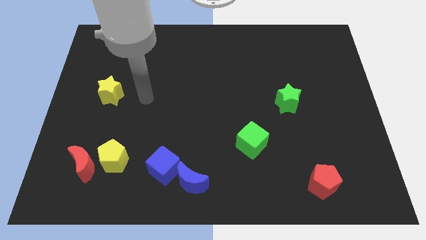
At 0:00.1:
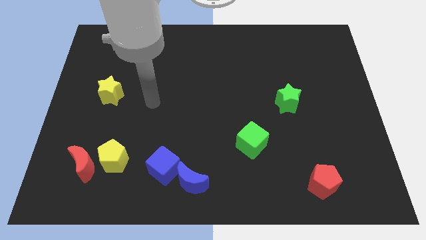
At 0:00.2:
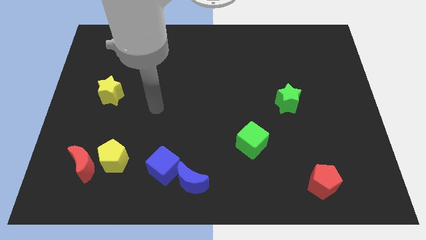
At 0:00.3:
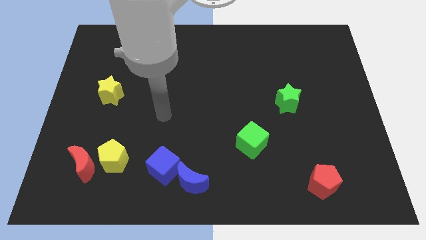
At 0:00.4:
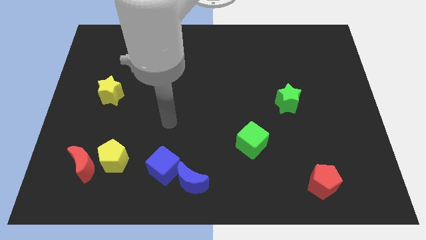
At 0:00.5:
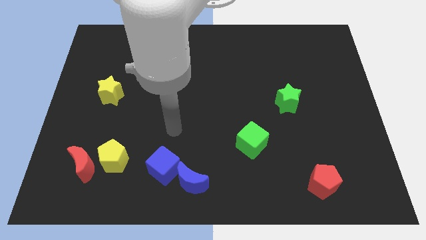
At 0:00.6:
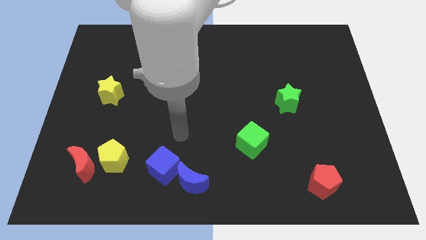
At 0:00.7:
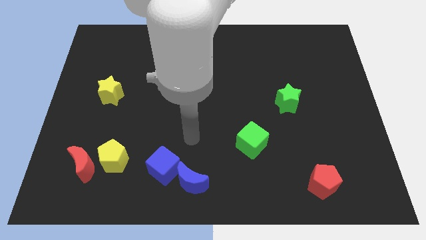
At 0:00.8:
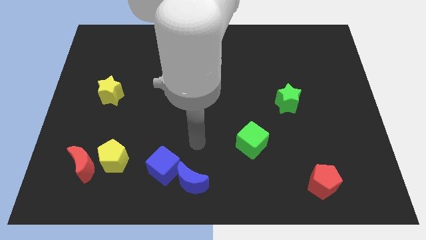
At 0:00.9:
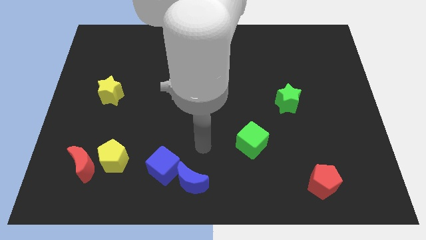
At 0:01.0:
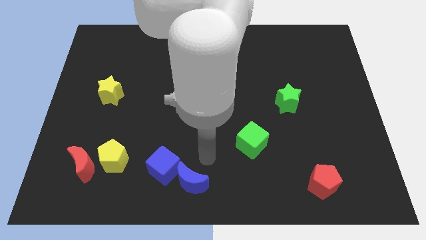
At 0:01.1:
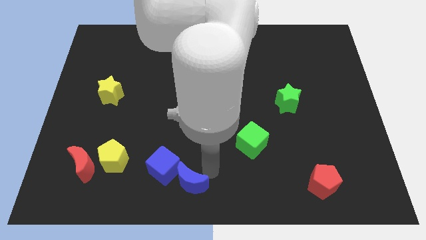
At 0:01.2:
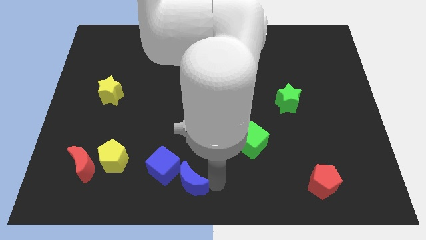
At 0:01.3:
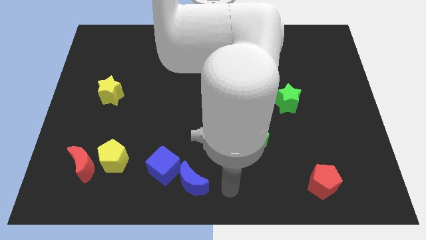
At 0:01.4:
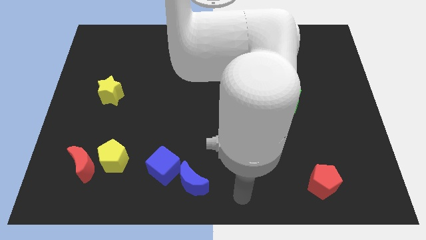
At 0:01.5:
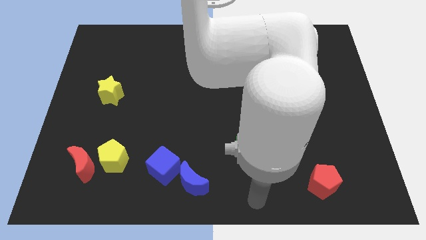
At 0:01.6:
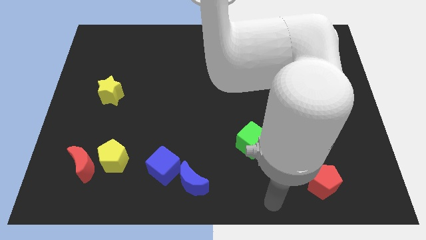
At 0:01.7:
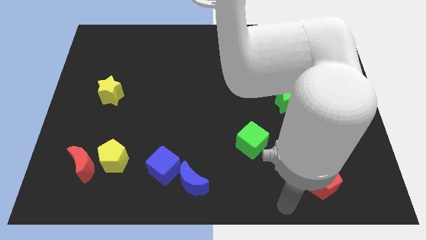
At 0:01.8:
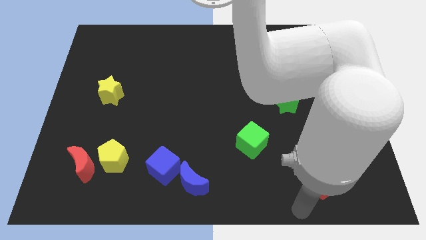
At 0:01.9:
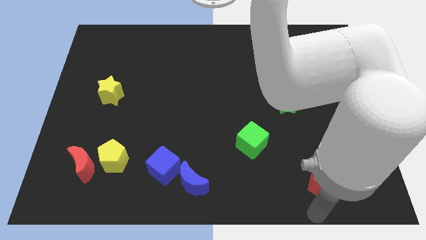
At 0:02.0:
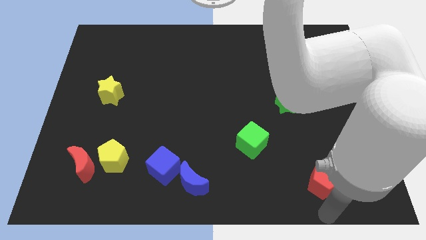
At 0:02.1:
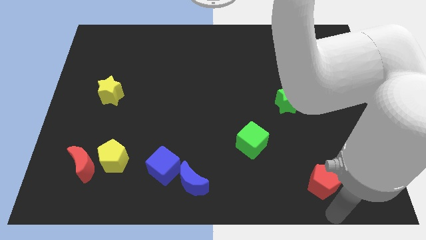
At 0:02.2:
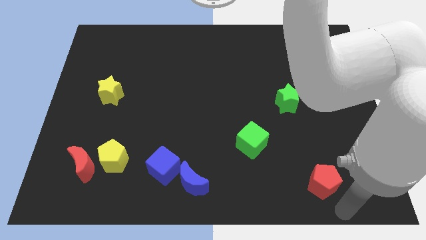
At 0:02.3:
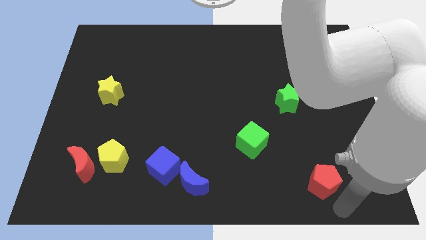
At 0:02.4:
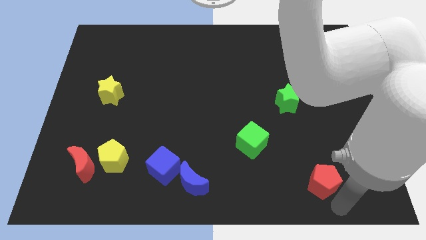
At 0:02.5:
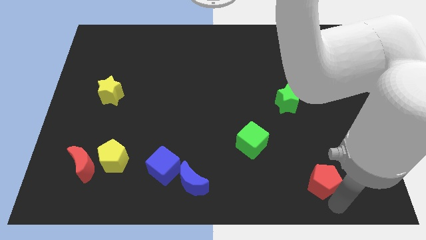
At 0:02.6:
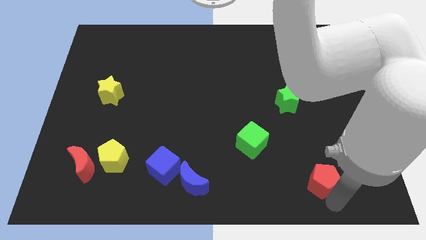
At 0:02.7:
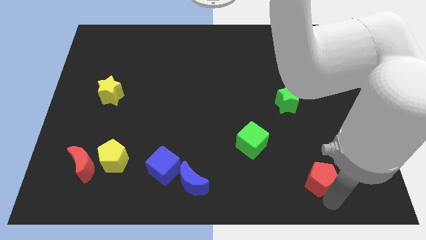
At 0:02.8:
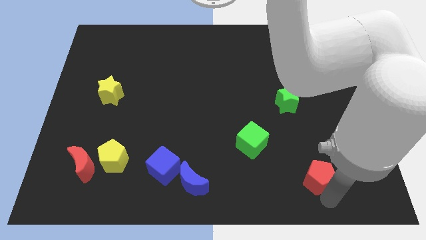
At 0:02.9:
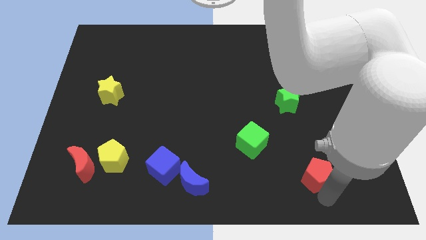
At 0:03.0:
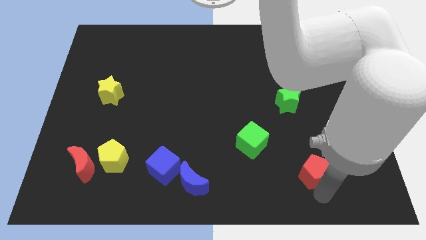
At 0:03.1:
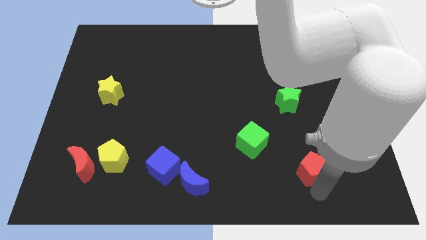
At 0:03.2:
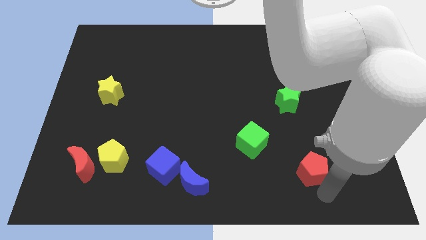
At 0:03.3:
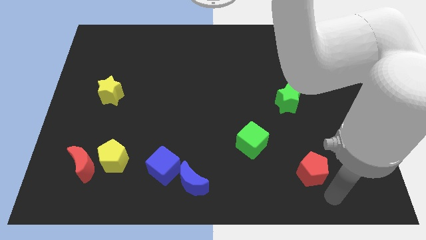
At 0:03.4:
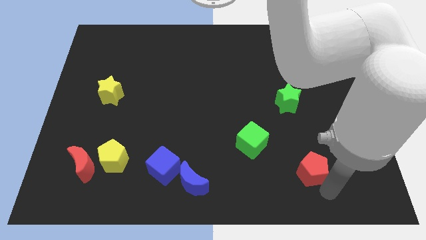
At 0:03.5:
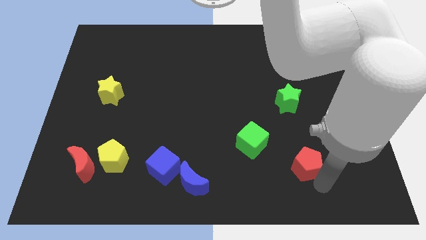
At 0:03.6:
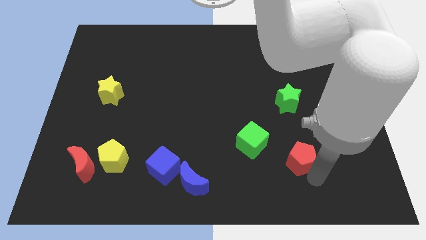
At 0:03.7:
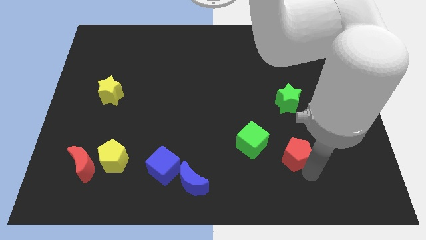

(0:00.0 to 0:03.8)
slightly slide the red pentagon upwards and to the left

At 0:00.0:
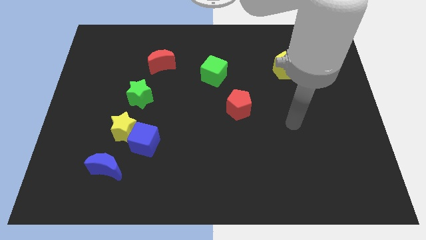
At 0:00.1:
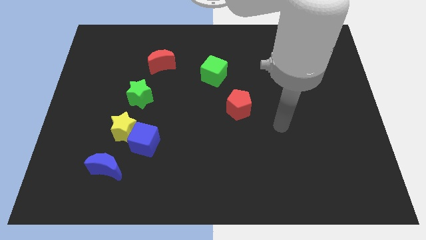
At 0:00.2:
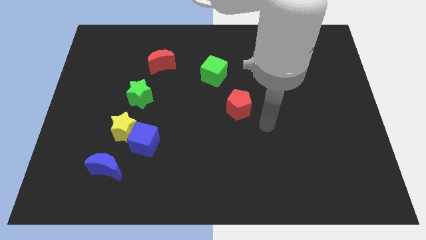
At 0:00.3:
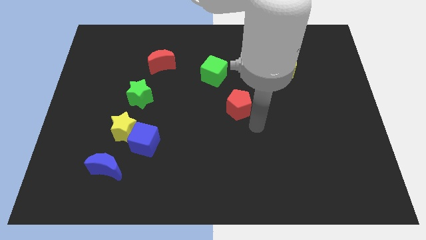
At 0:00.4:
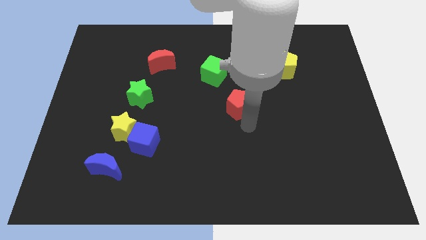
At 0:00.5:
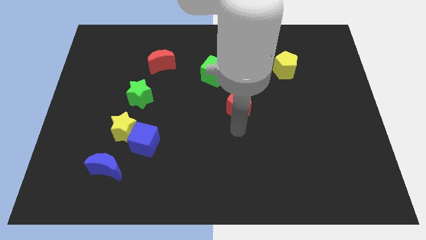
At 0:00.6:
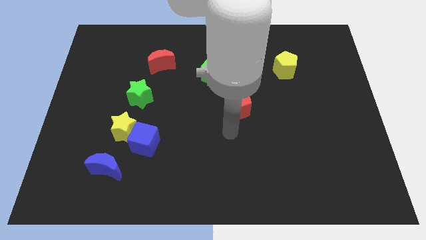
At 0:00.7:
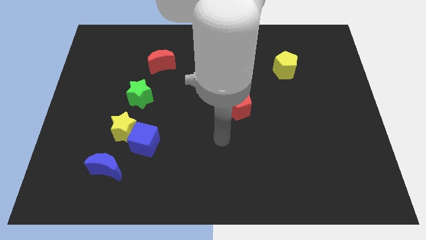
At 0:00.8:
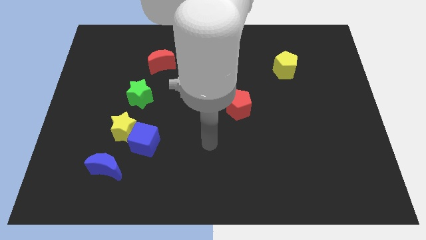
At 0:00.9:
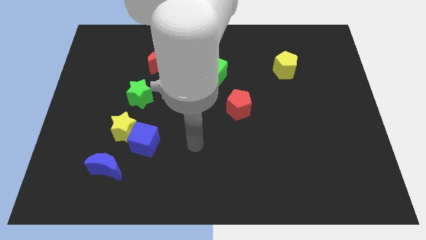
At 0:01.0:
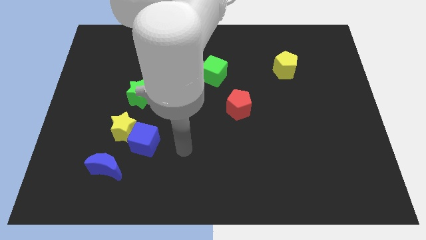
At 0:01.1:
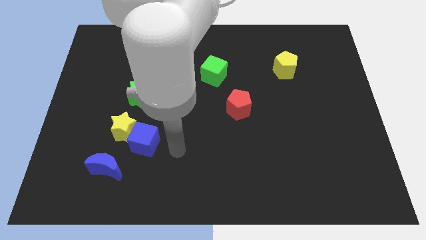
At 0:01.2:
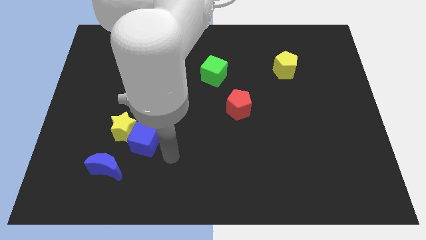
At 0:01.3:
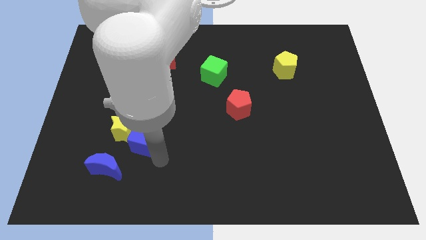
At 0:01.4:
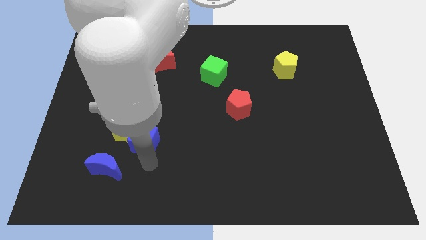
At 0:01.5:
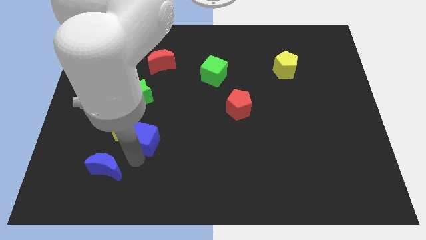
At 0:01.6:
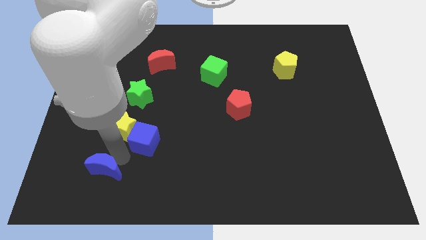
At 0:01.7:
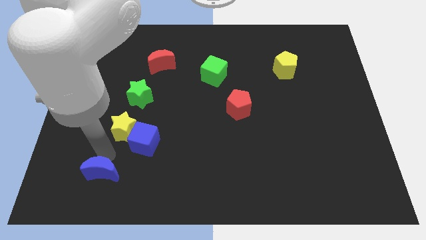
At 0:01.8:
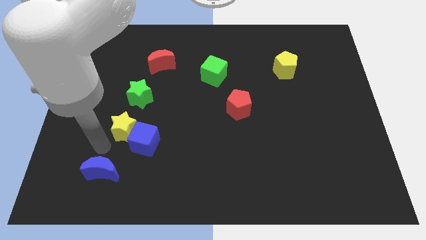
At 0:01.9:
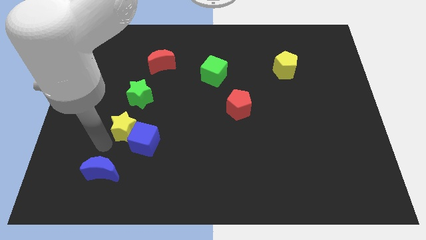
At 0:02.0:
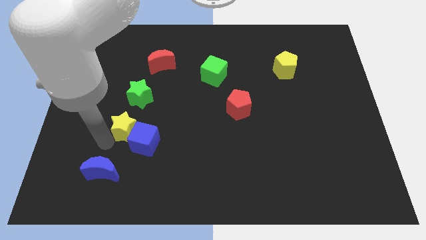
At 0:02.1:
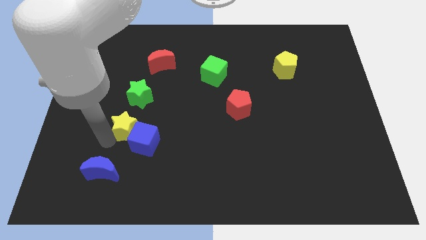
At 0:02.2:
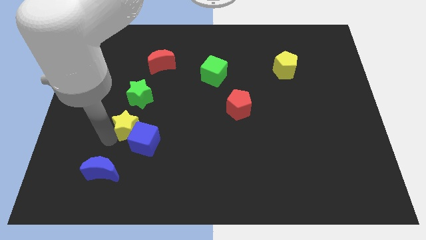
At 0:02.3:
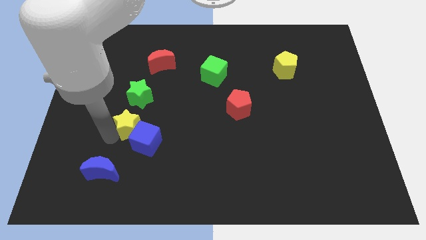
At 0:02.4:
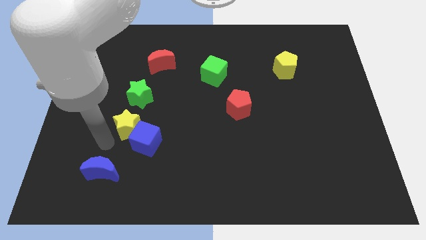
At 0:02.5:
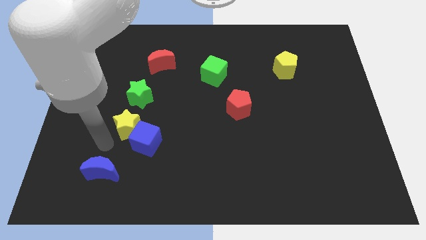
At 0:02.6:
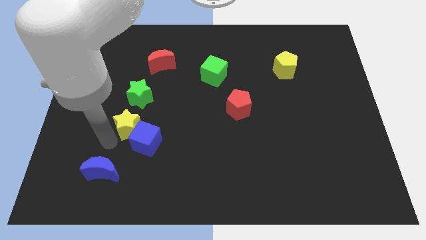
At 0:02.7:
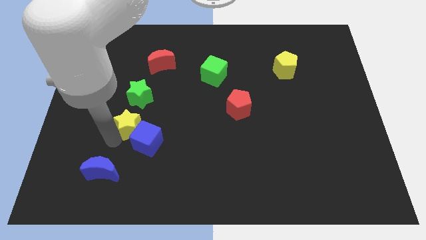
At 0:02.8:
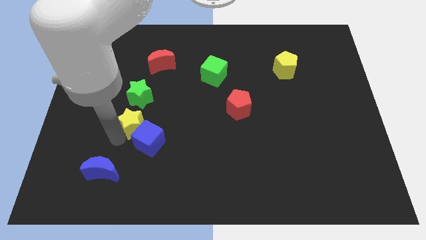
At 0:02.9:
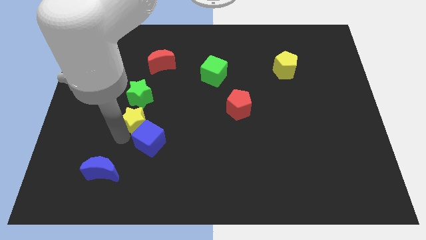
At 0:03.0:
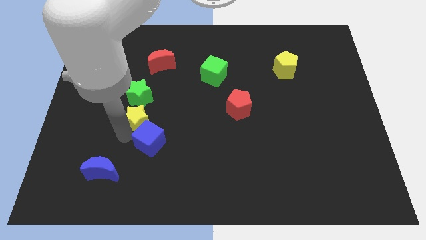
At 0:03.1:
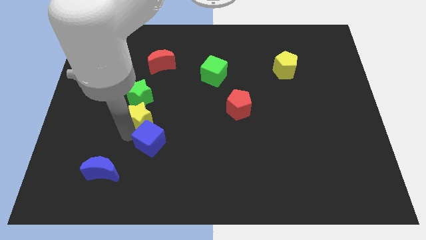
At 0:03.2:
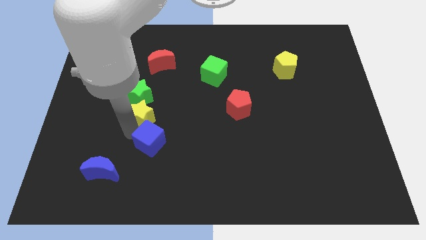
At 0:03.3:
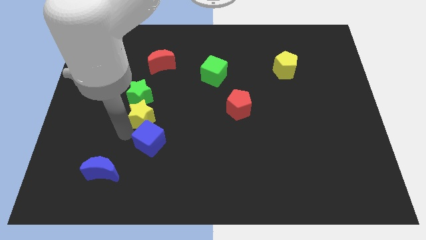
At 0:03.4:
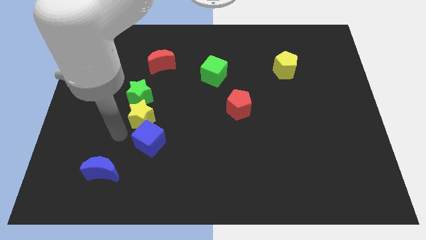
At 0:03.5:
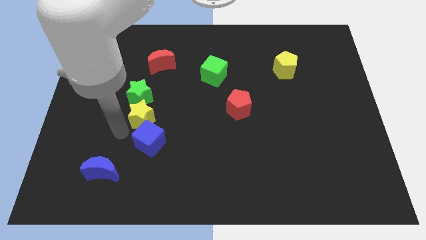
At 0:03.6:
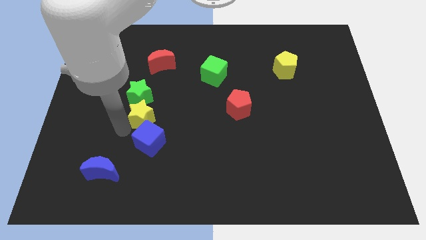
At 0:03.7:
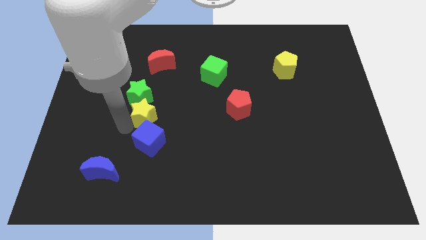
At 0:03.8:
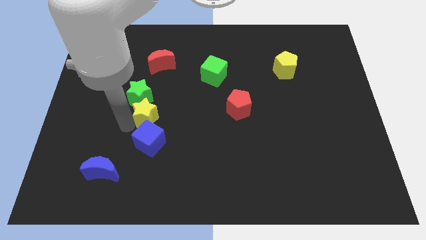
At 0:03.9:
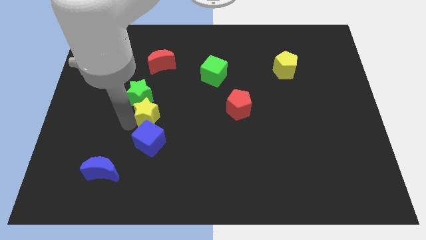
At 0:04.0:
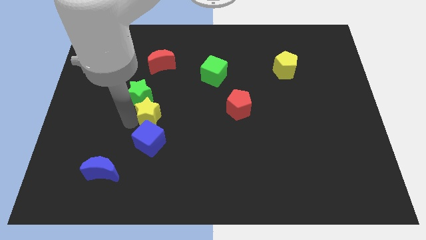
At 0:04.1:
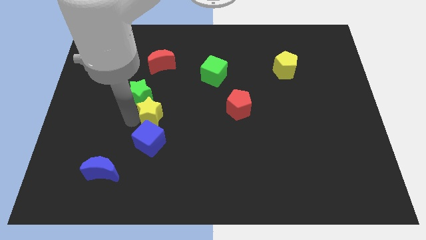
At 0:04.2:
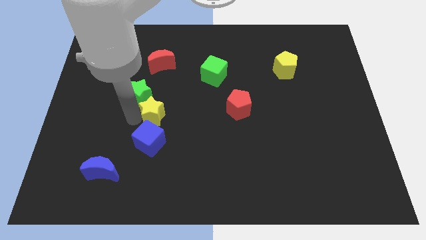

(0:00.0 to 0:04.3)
push the yellow star diagonally up and right somewhat
